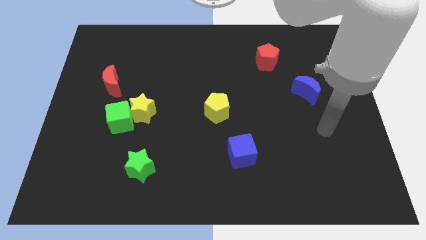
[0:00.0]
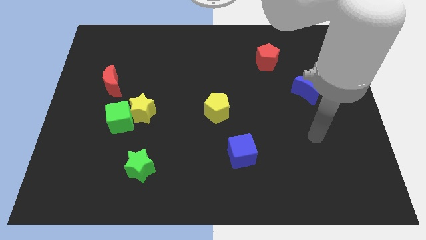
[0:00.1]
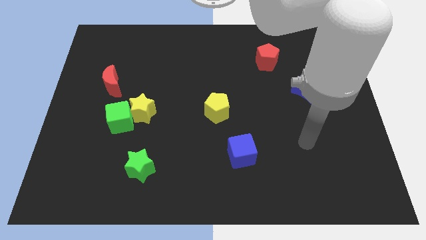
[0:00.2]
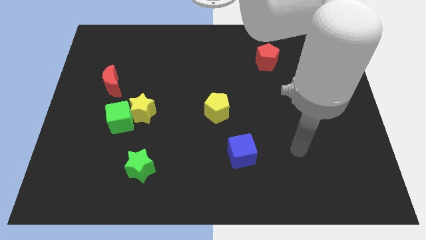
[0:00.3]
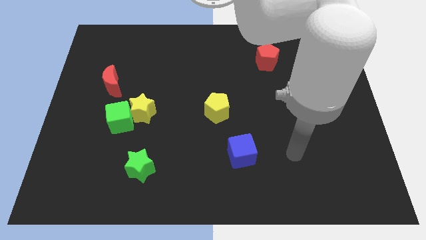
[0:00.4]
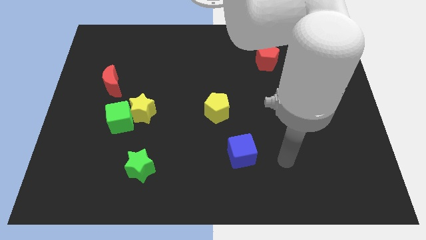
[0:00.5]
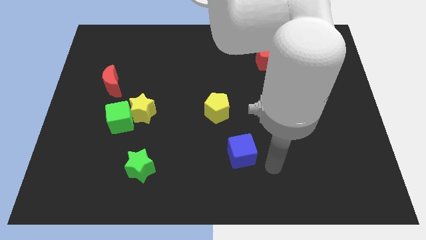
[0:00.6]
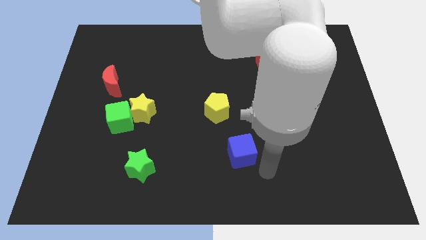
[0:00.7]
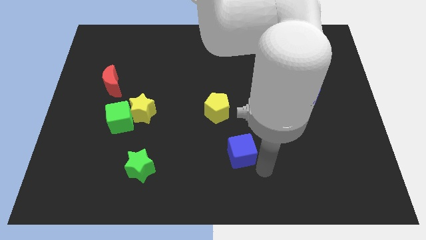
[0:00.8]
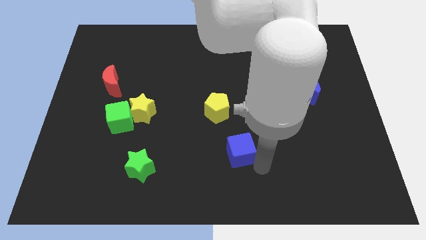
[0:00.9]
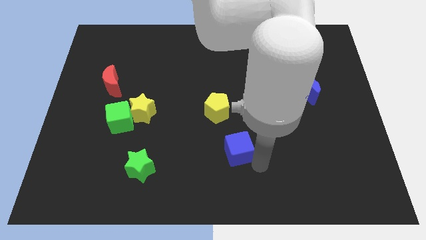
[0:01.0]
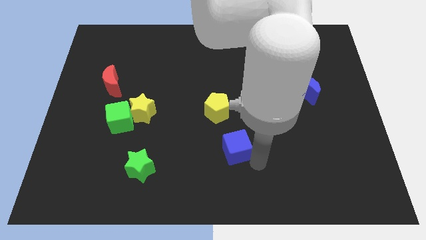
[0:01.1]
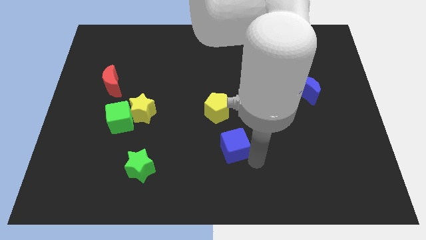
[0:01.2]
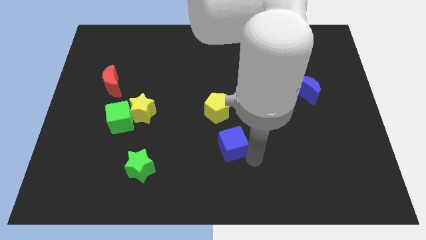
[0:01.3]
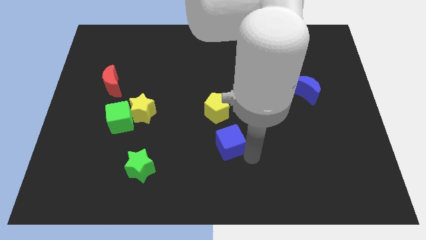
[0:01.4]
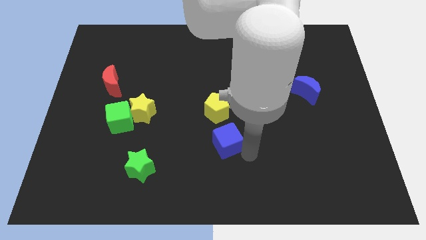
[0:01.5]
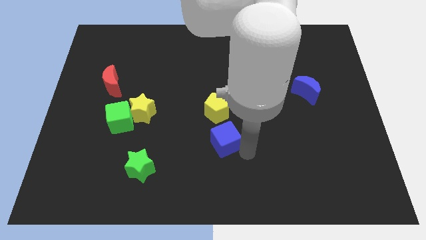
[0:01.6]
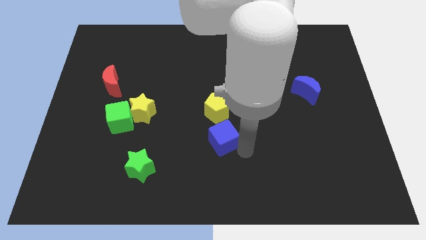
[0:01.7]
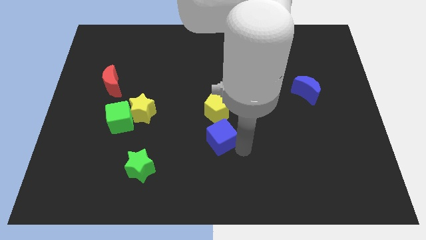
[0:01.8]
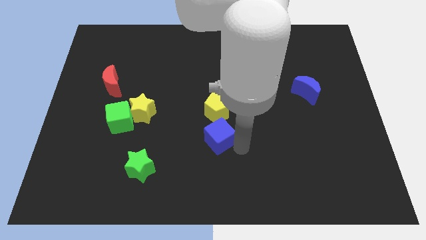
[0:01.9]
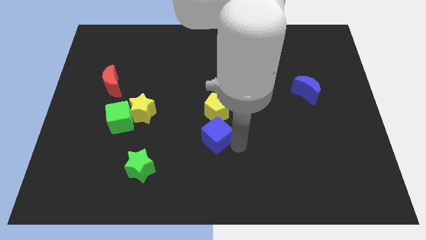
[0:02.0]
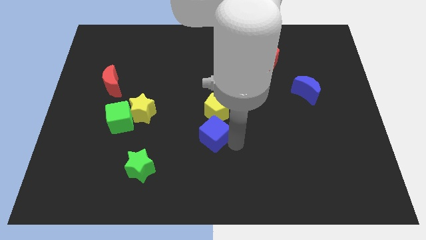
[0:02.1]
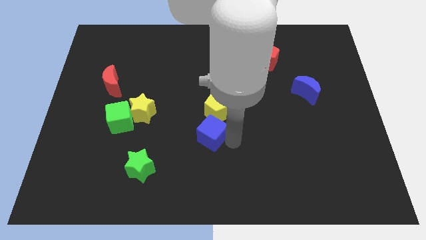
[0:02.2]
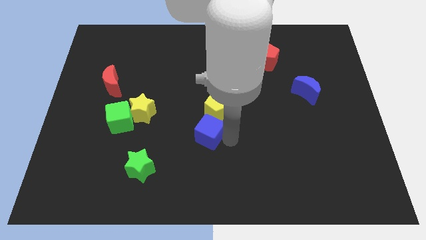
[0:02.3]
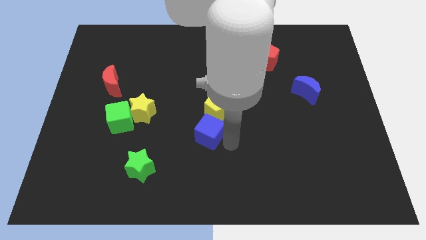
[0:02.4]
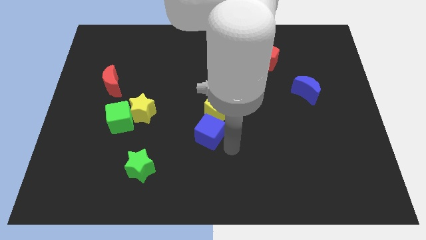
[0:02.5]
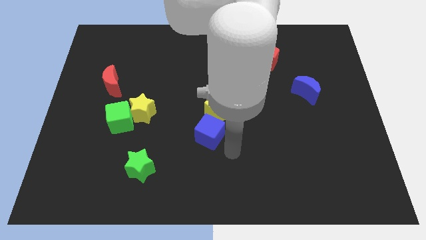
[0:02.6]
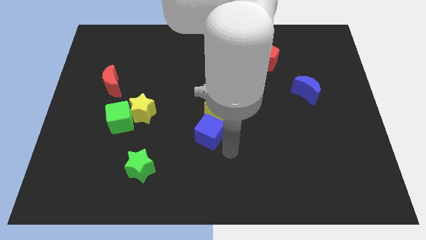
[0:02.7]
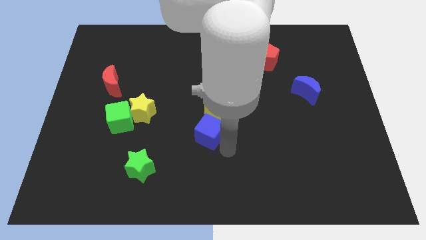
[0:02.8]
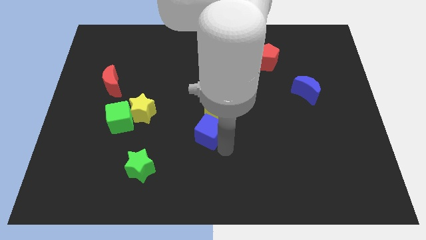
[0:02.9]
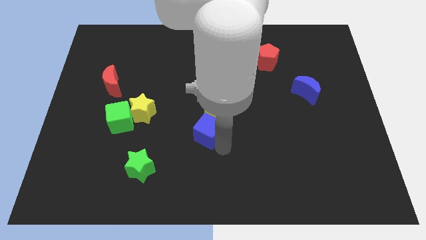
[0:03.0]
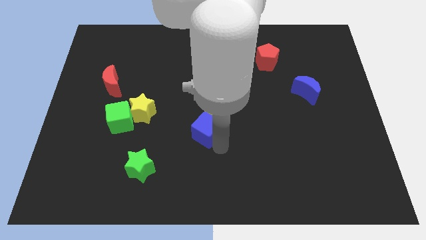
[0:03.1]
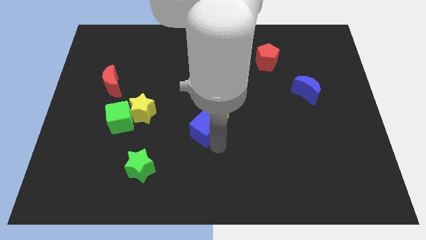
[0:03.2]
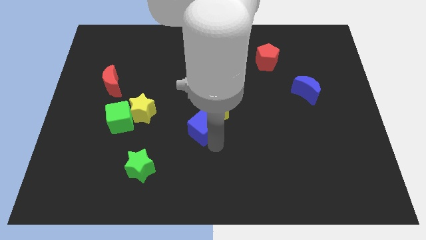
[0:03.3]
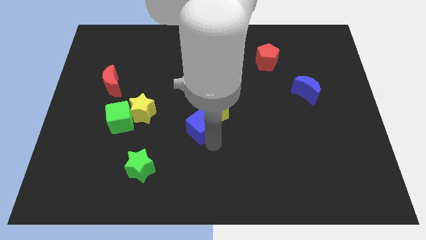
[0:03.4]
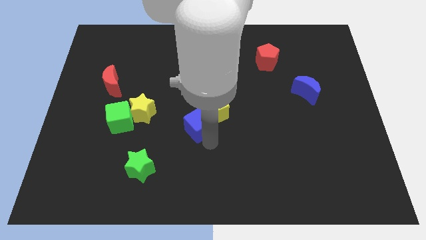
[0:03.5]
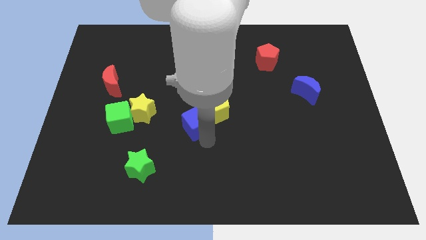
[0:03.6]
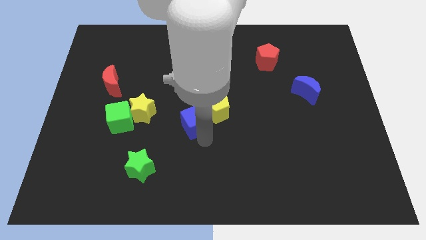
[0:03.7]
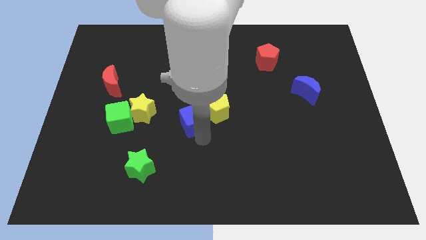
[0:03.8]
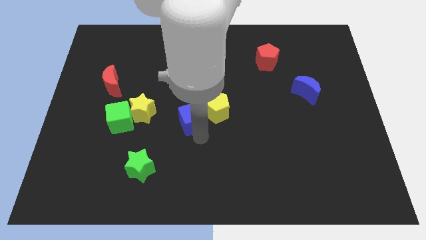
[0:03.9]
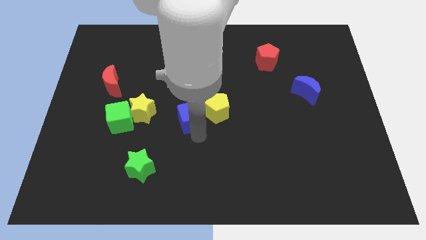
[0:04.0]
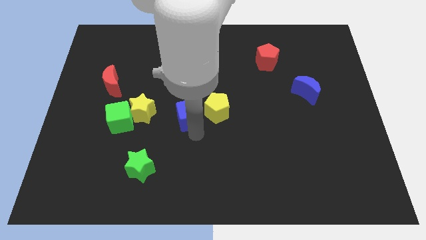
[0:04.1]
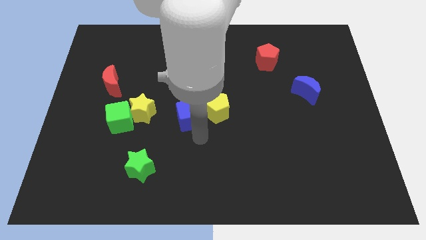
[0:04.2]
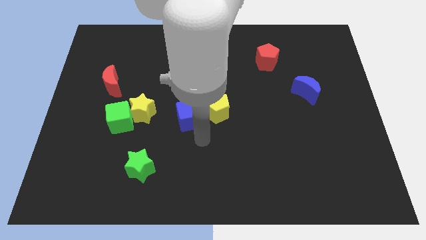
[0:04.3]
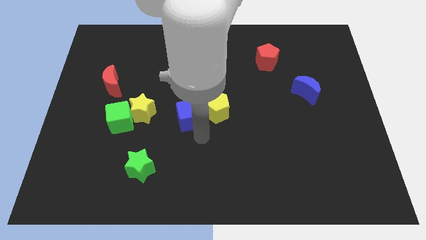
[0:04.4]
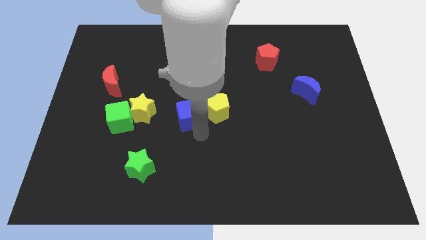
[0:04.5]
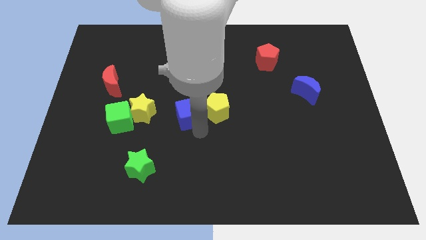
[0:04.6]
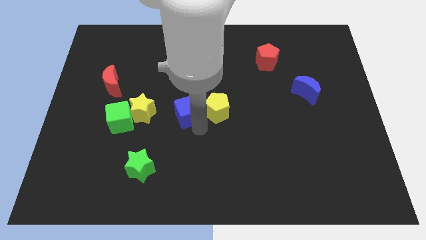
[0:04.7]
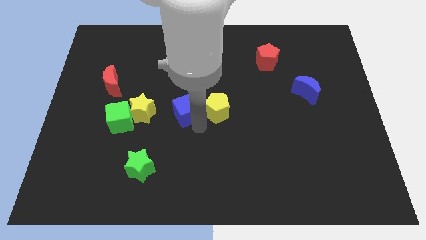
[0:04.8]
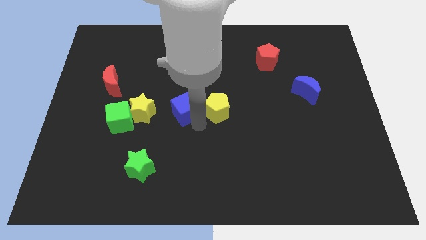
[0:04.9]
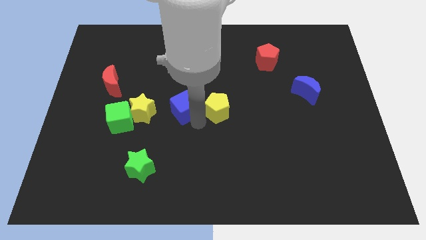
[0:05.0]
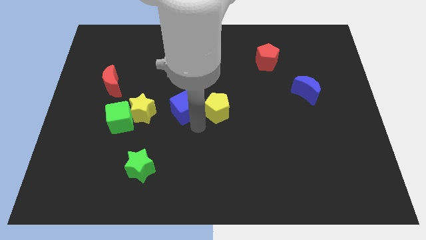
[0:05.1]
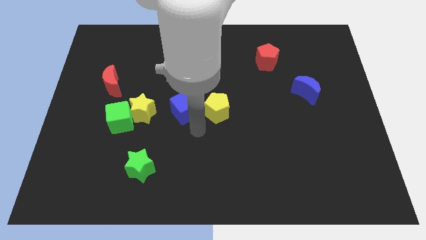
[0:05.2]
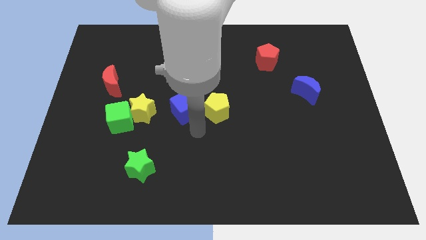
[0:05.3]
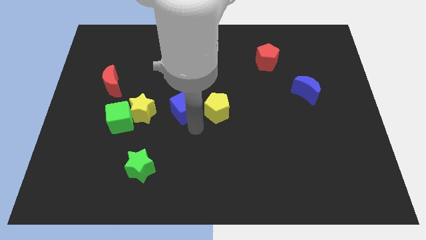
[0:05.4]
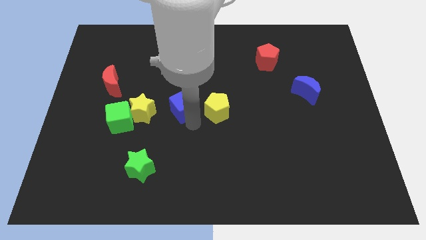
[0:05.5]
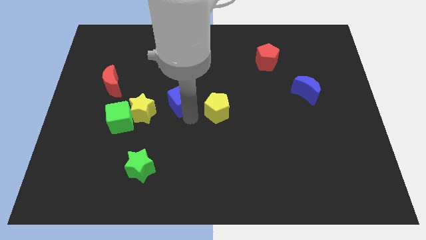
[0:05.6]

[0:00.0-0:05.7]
put the blue cube to the top right side of the yellow star
